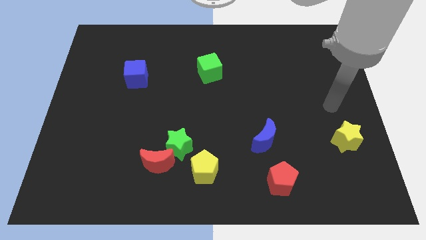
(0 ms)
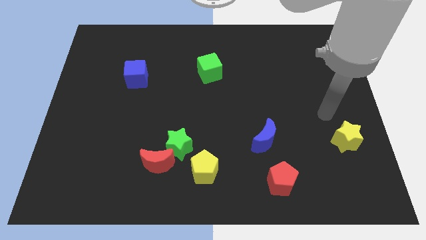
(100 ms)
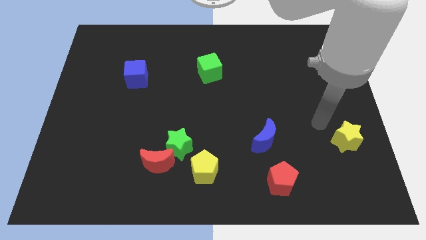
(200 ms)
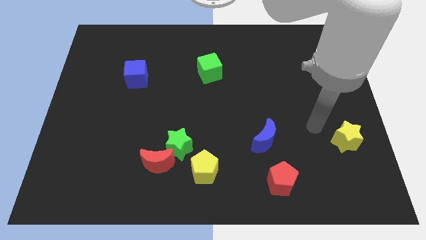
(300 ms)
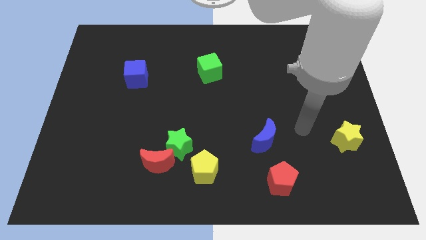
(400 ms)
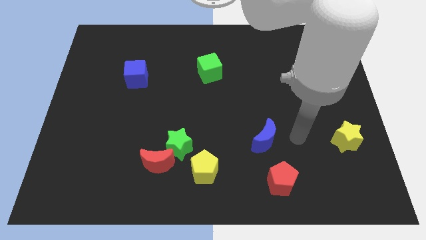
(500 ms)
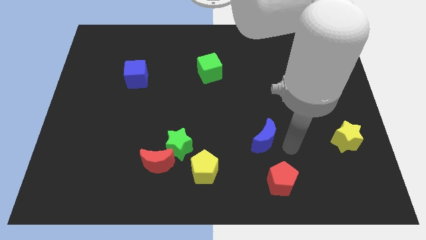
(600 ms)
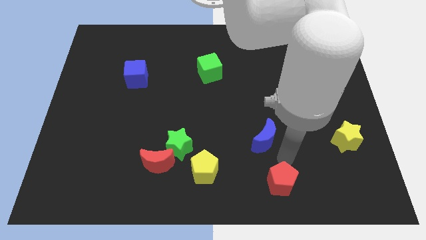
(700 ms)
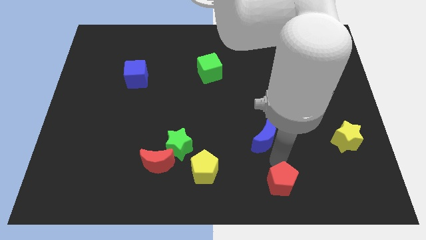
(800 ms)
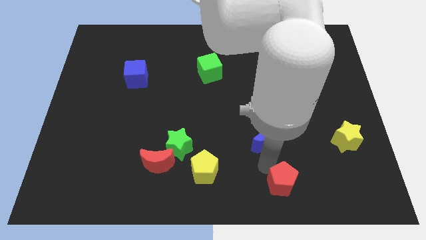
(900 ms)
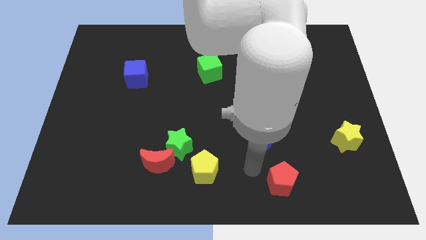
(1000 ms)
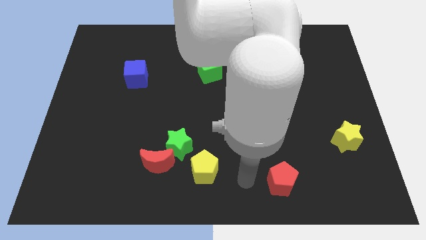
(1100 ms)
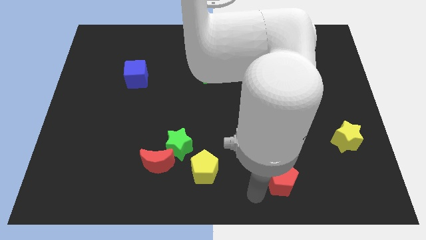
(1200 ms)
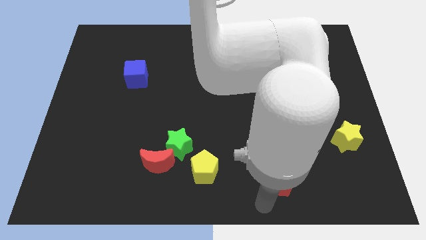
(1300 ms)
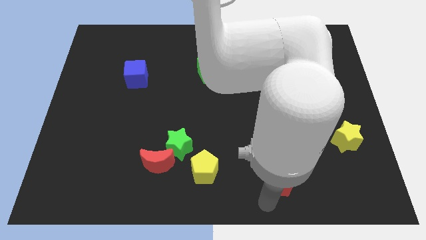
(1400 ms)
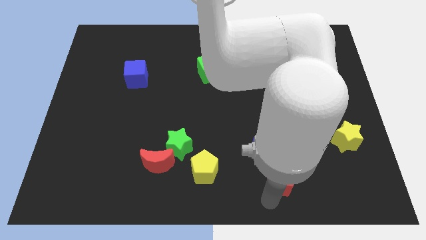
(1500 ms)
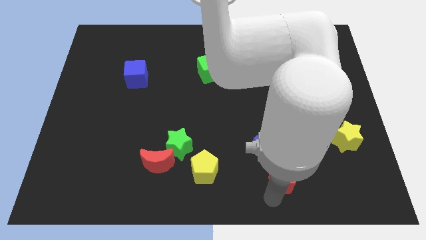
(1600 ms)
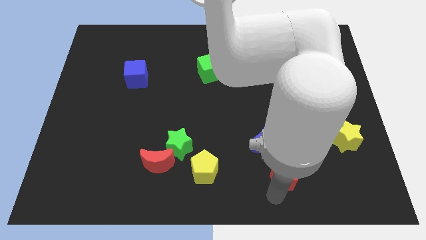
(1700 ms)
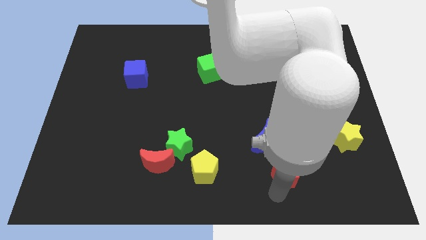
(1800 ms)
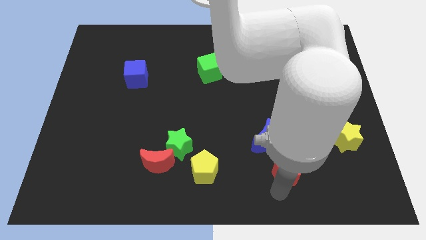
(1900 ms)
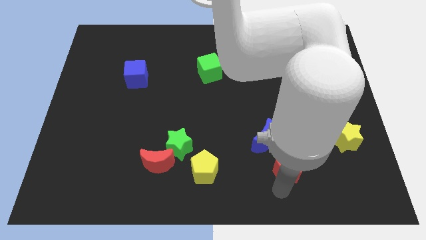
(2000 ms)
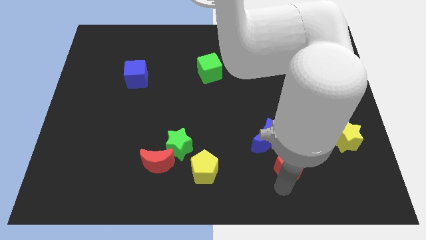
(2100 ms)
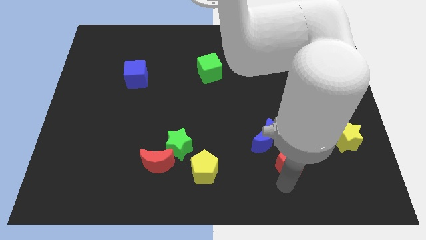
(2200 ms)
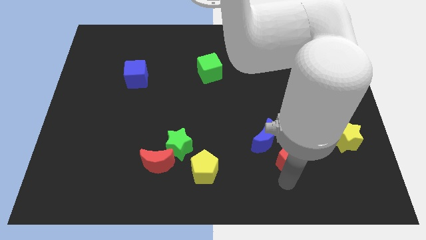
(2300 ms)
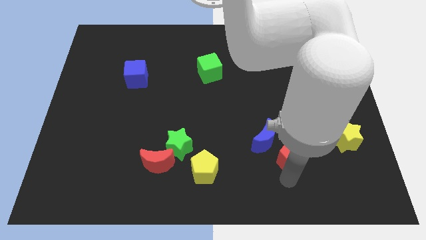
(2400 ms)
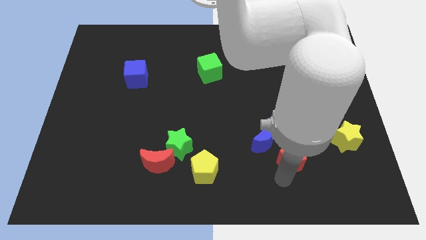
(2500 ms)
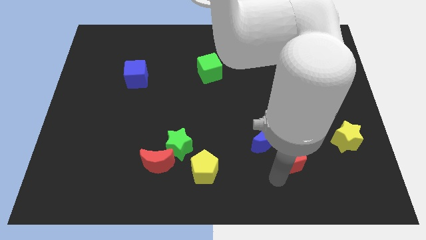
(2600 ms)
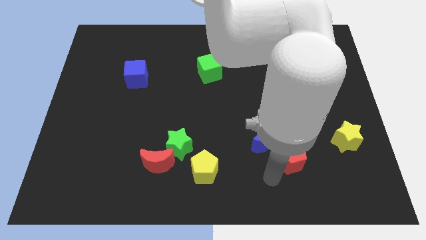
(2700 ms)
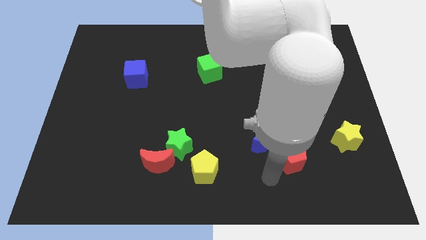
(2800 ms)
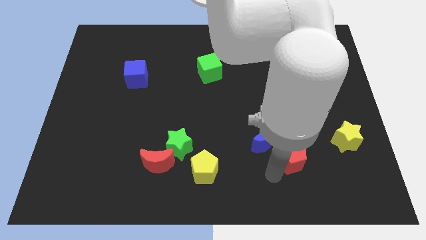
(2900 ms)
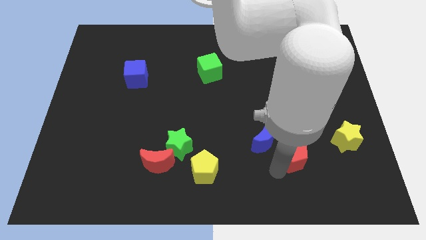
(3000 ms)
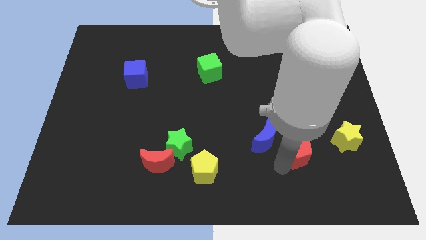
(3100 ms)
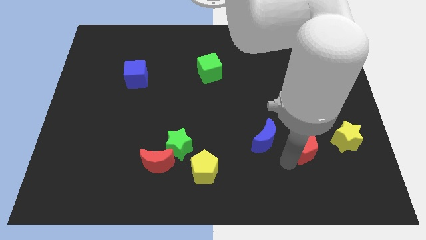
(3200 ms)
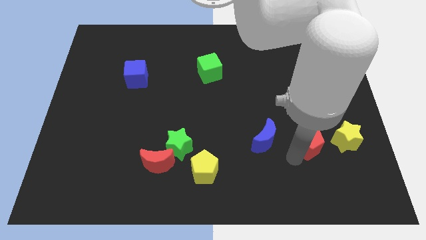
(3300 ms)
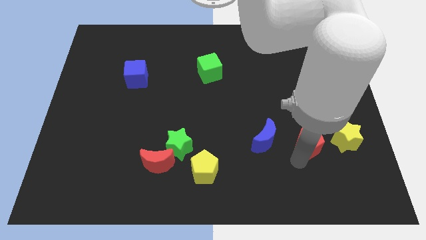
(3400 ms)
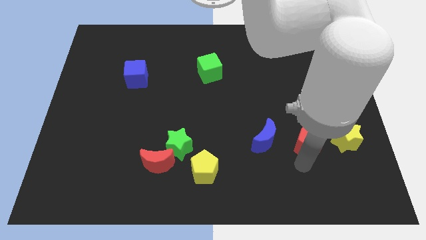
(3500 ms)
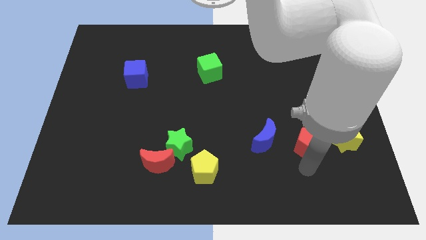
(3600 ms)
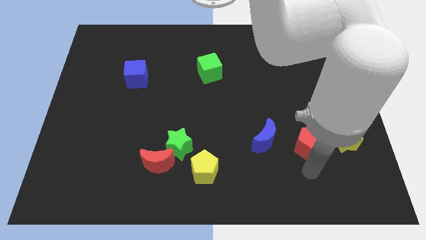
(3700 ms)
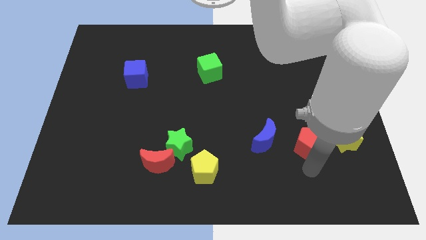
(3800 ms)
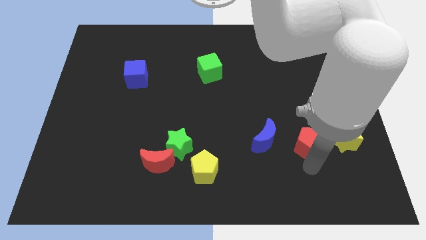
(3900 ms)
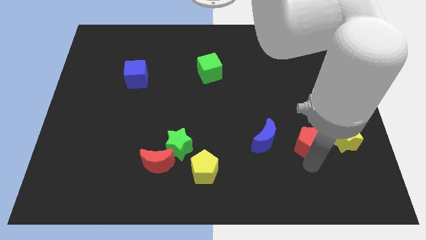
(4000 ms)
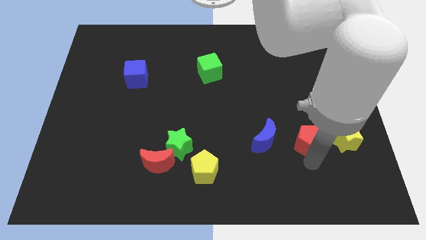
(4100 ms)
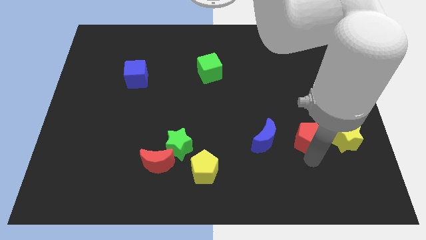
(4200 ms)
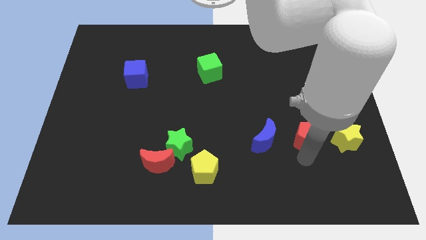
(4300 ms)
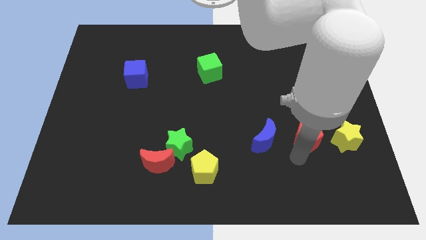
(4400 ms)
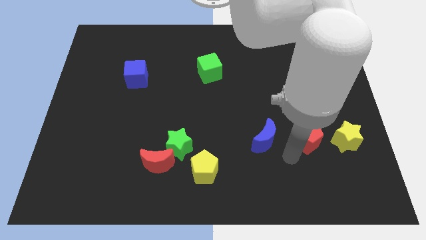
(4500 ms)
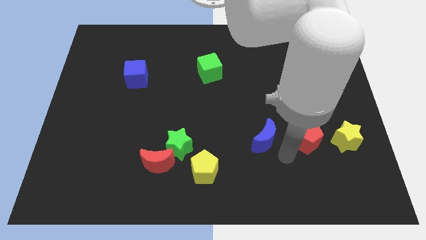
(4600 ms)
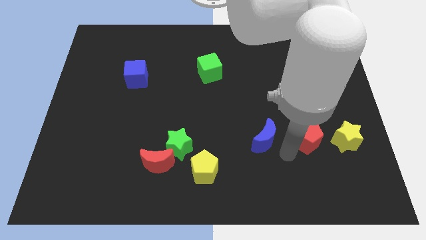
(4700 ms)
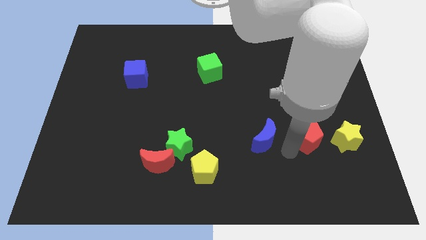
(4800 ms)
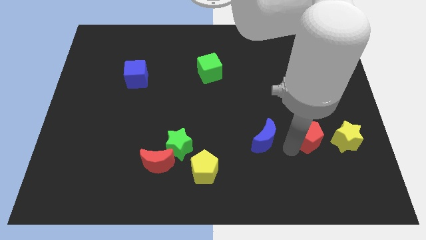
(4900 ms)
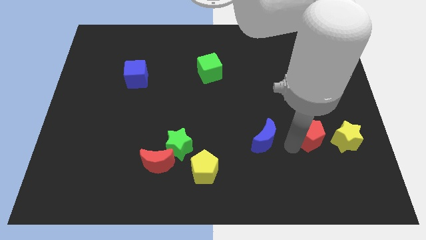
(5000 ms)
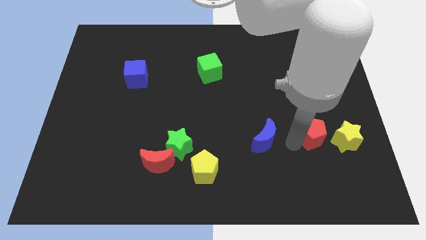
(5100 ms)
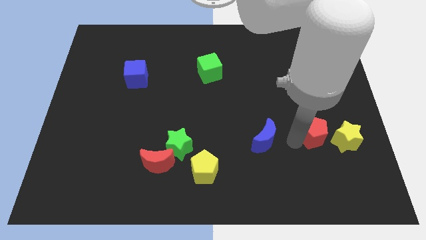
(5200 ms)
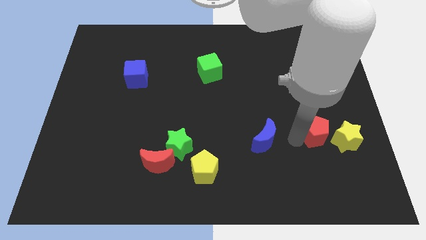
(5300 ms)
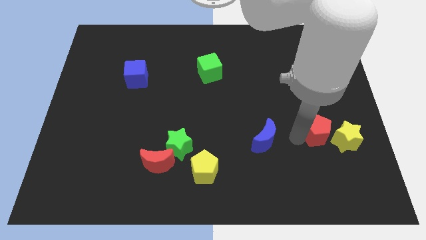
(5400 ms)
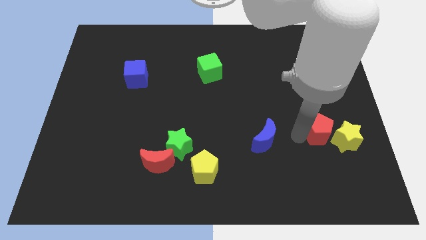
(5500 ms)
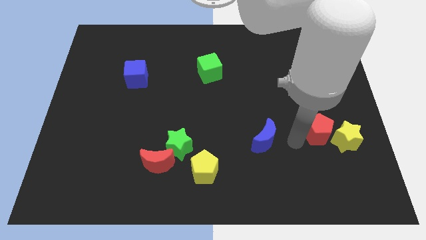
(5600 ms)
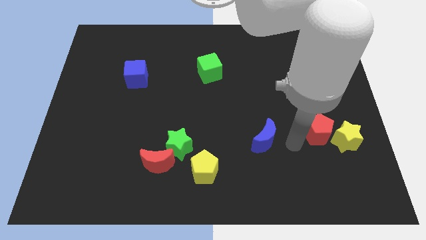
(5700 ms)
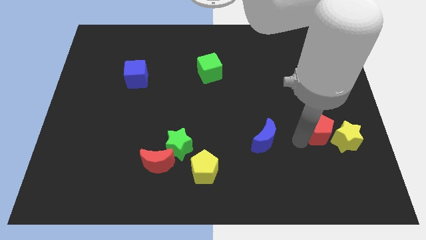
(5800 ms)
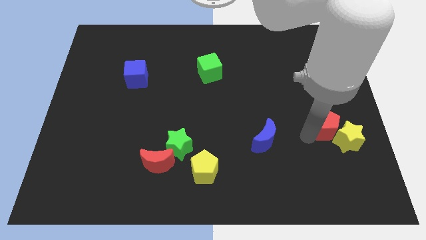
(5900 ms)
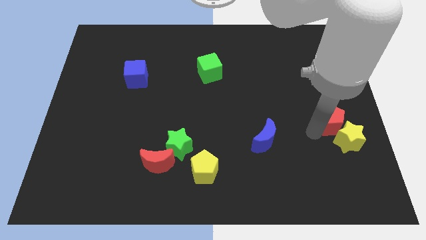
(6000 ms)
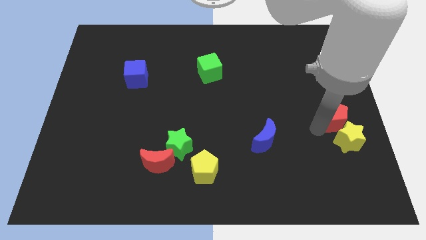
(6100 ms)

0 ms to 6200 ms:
push the red pentagon to the right side
